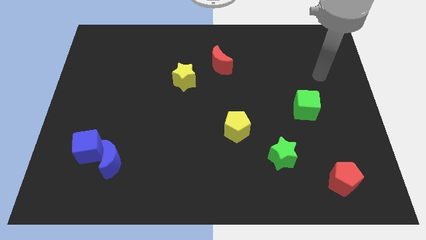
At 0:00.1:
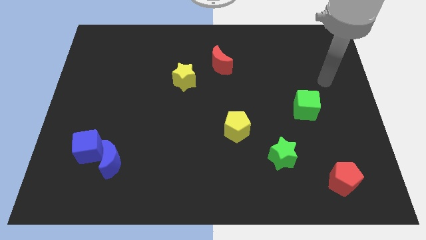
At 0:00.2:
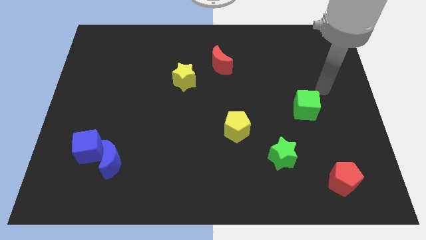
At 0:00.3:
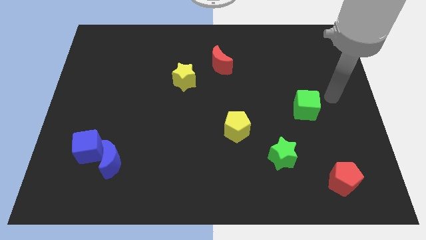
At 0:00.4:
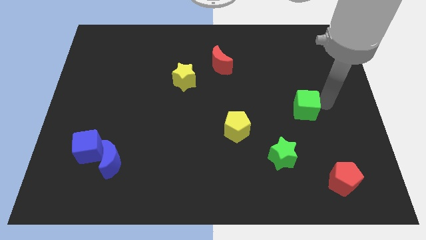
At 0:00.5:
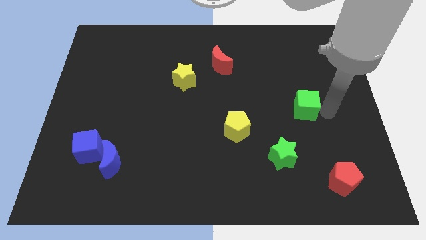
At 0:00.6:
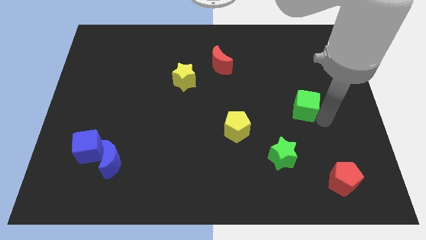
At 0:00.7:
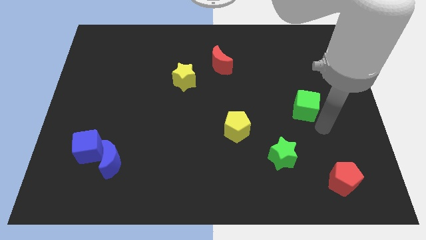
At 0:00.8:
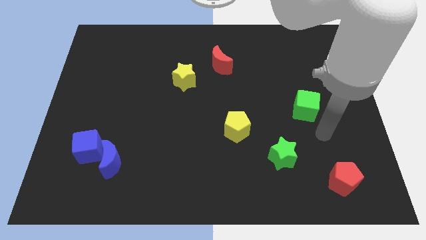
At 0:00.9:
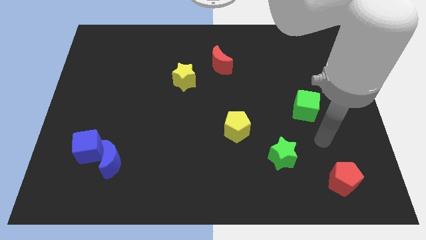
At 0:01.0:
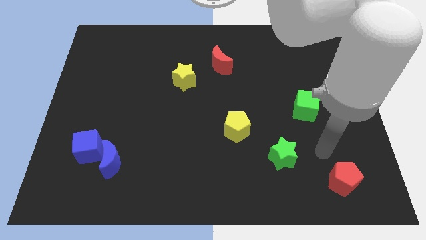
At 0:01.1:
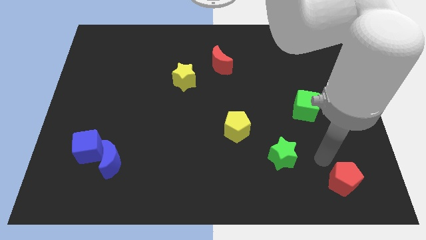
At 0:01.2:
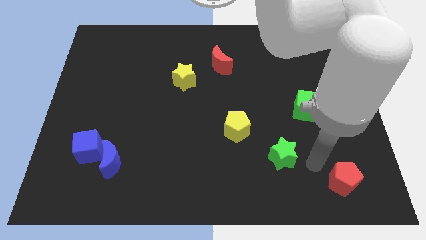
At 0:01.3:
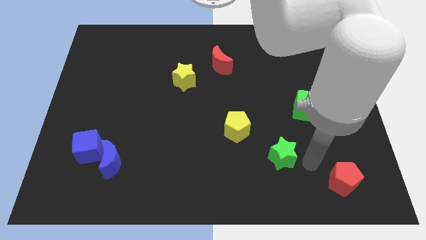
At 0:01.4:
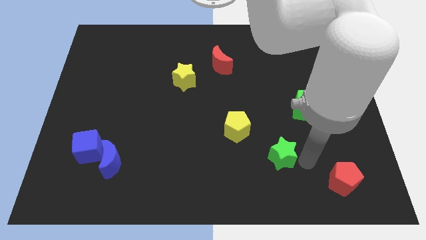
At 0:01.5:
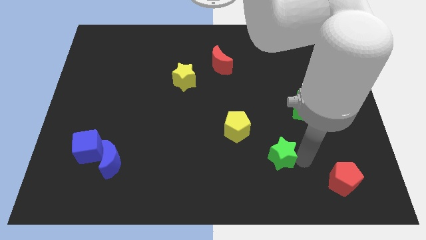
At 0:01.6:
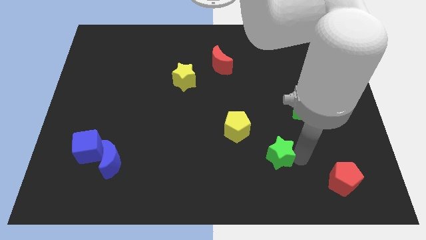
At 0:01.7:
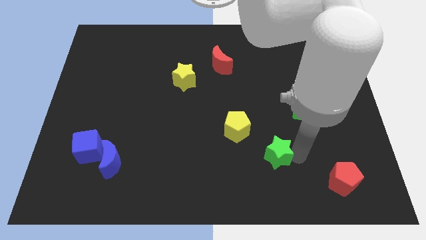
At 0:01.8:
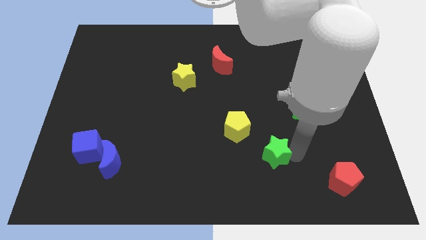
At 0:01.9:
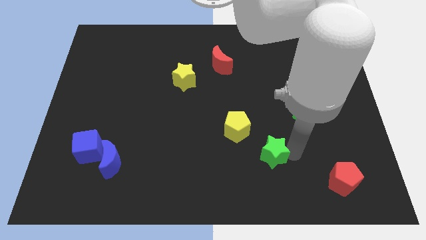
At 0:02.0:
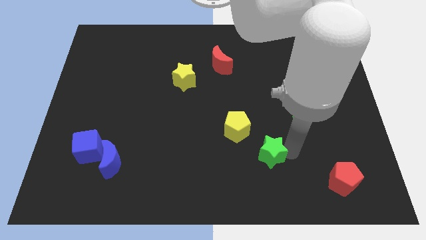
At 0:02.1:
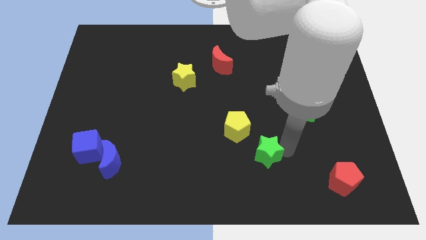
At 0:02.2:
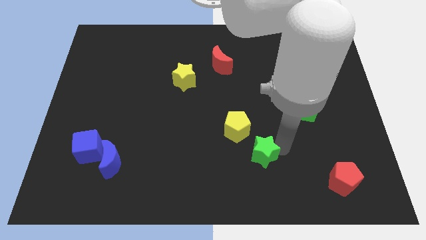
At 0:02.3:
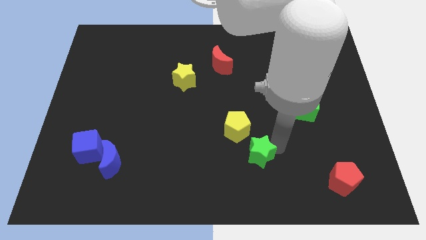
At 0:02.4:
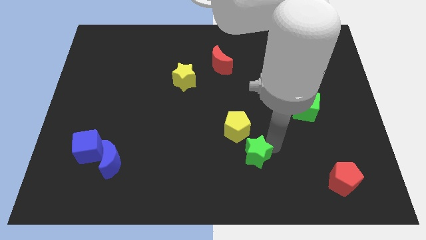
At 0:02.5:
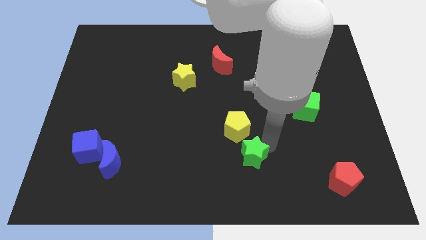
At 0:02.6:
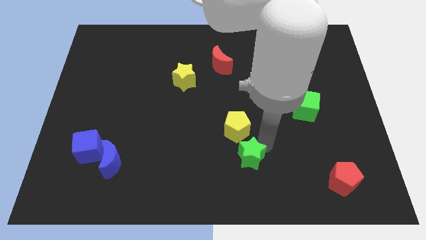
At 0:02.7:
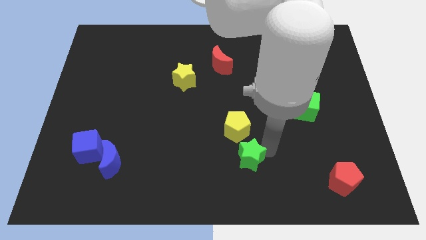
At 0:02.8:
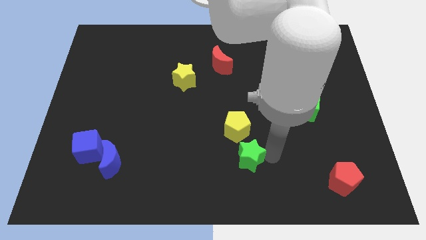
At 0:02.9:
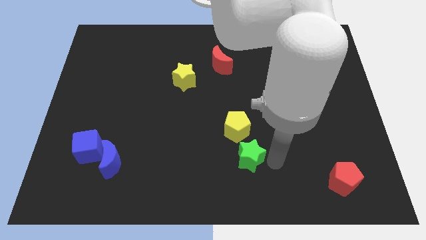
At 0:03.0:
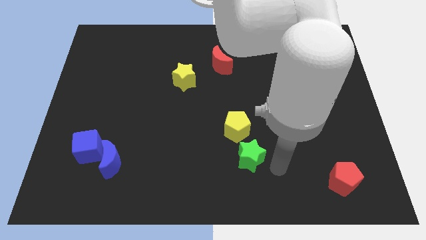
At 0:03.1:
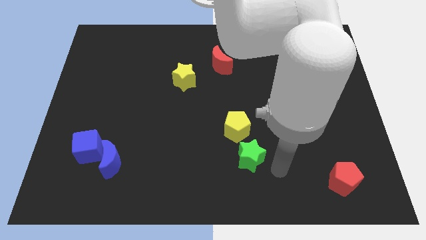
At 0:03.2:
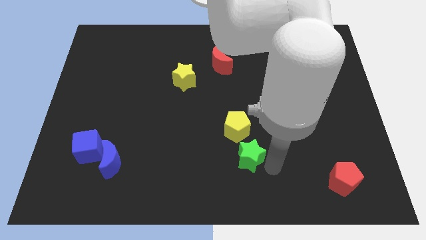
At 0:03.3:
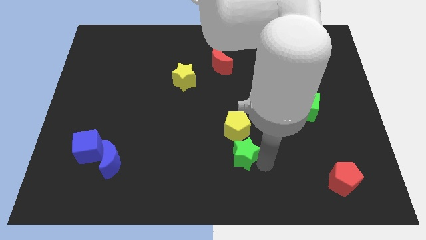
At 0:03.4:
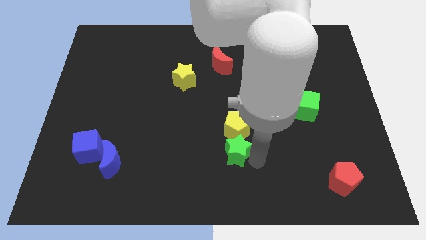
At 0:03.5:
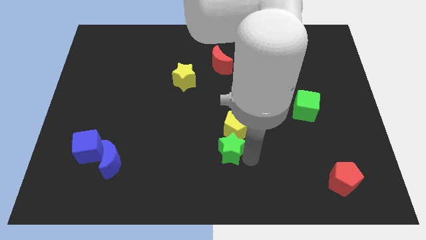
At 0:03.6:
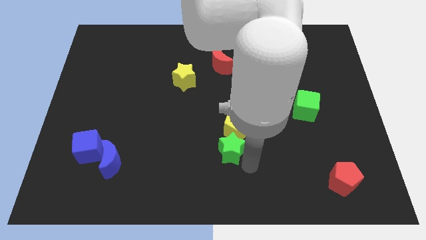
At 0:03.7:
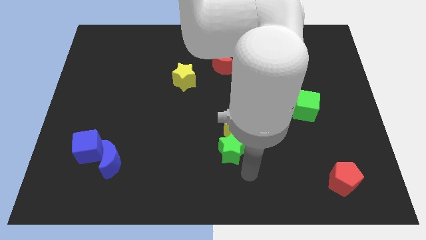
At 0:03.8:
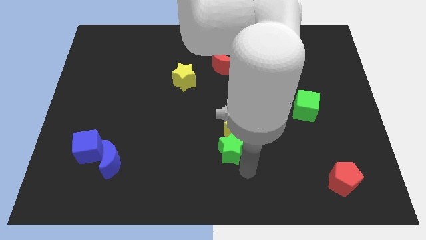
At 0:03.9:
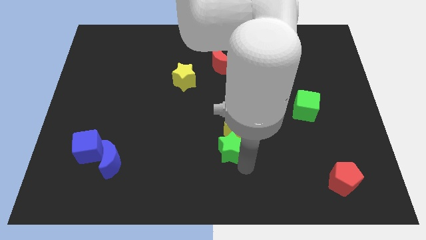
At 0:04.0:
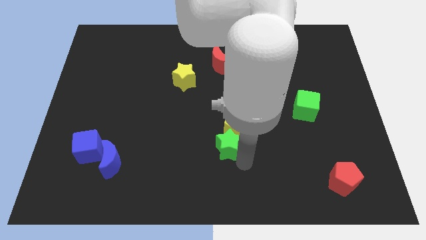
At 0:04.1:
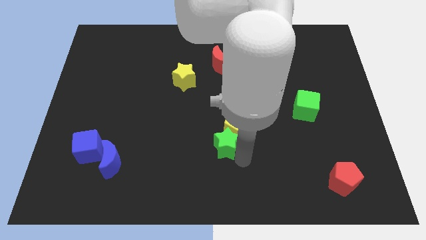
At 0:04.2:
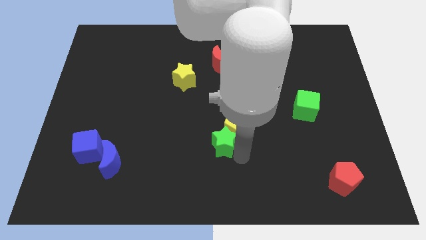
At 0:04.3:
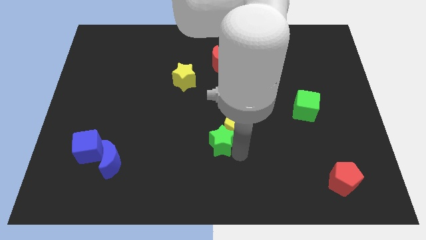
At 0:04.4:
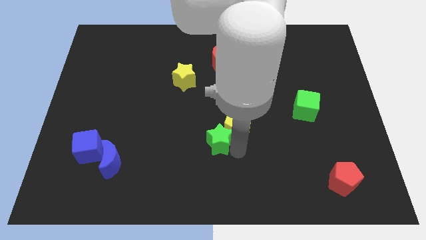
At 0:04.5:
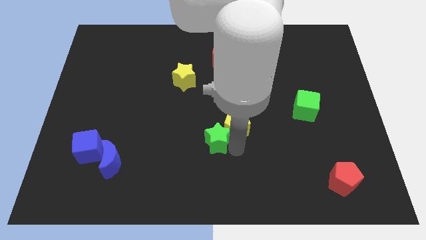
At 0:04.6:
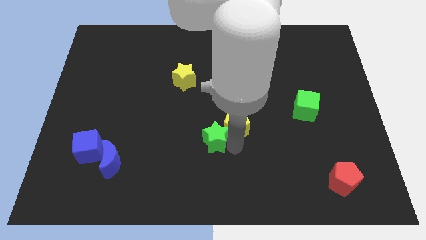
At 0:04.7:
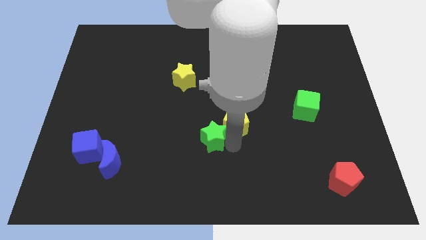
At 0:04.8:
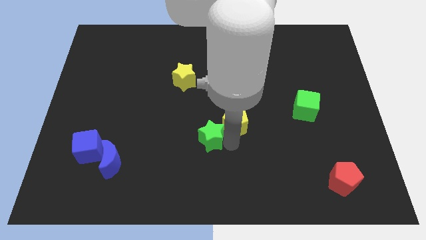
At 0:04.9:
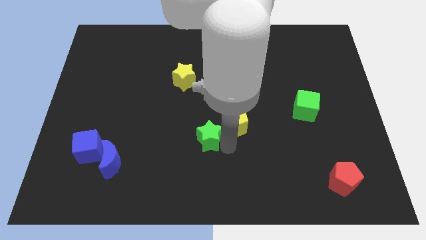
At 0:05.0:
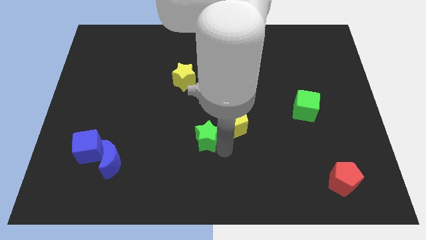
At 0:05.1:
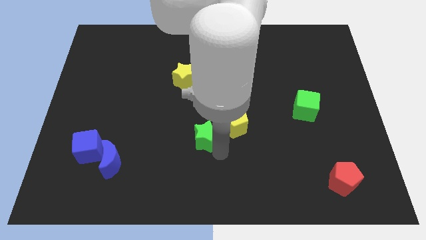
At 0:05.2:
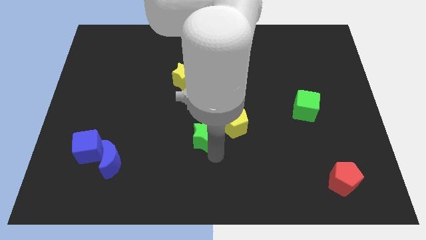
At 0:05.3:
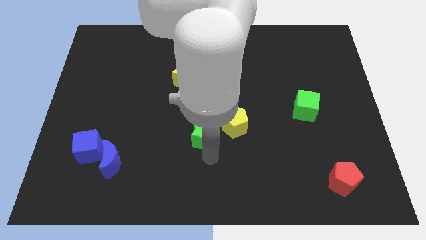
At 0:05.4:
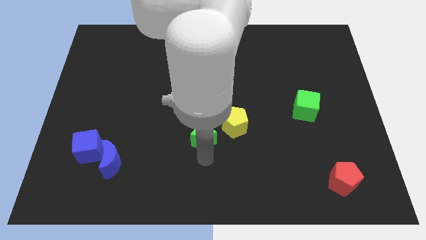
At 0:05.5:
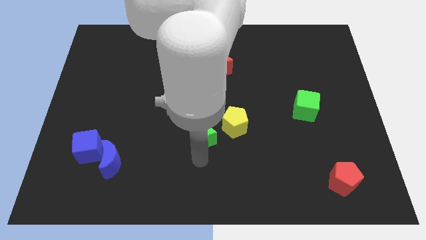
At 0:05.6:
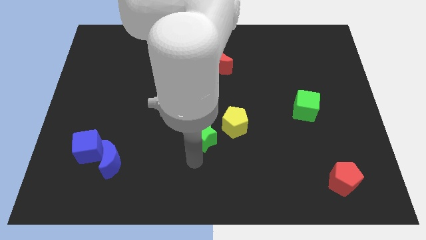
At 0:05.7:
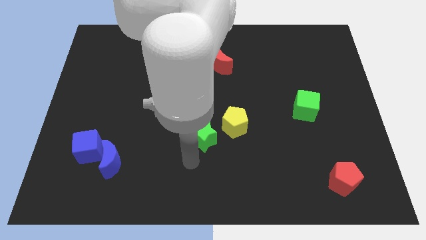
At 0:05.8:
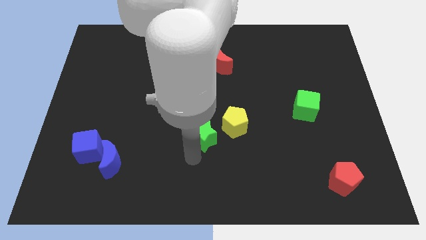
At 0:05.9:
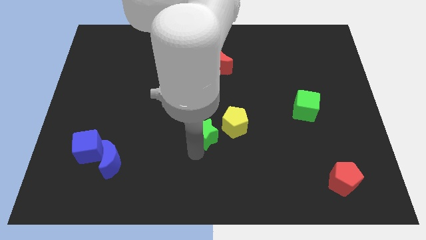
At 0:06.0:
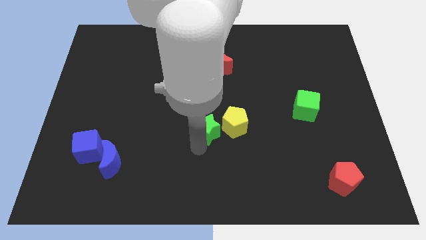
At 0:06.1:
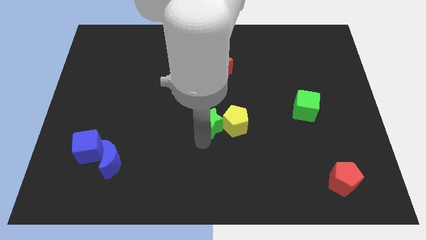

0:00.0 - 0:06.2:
move the green star to the top left side of the yellow pentagon

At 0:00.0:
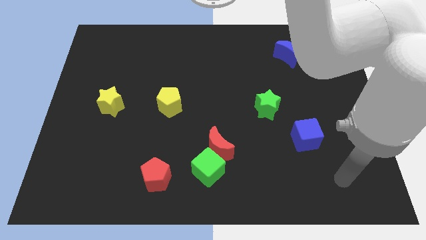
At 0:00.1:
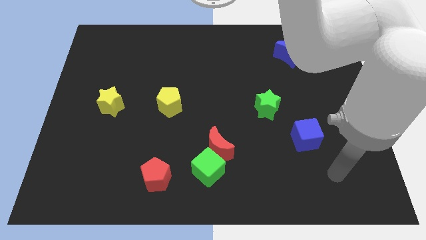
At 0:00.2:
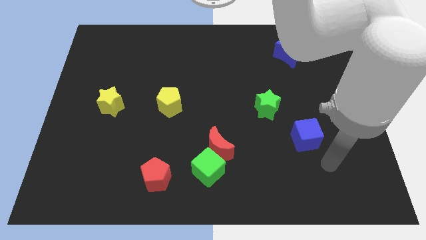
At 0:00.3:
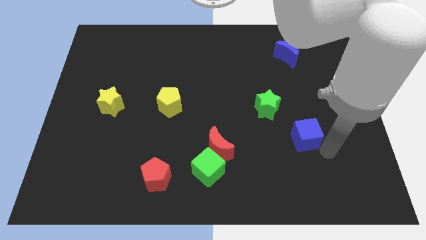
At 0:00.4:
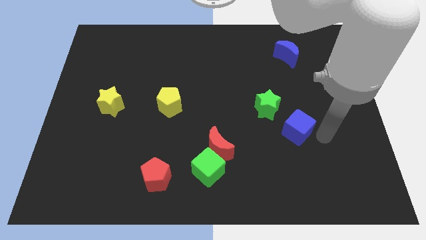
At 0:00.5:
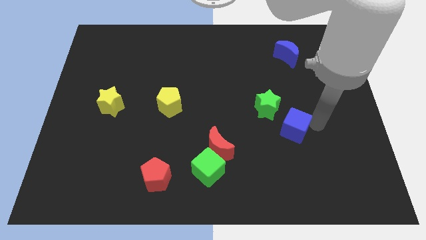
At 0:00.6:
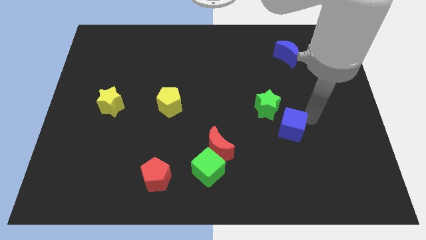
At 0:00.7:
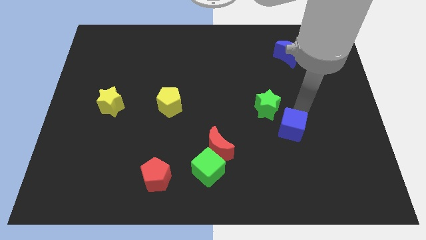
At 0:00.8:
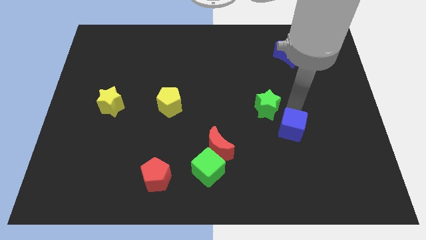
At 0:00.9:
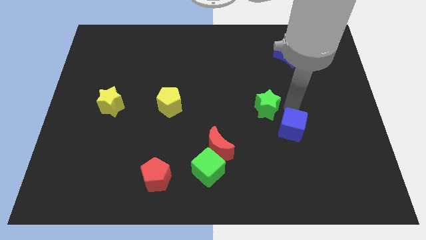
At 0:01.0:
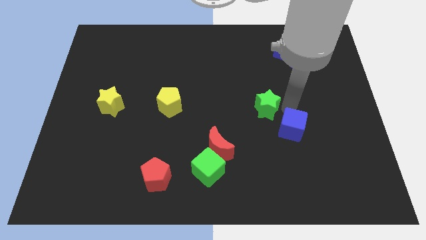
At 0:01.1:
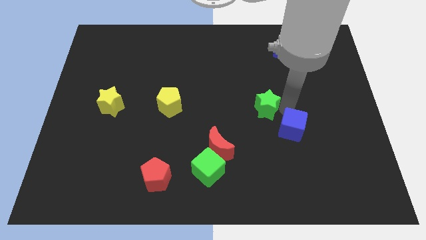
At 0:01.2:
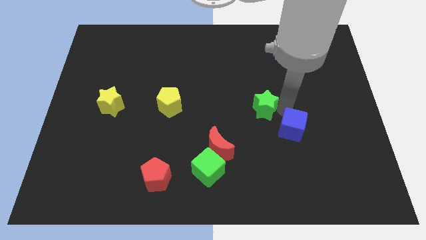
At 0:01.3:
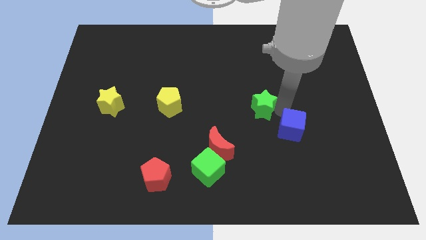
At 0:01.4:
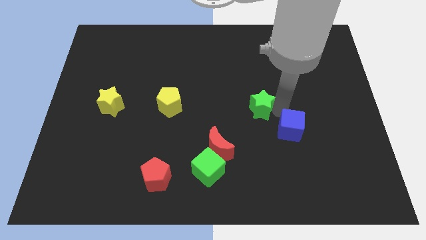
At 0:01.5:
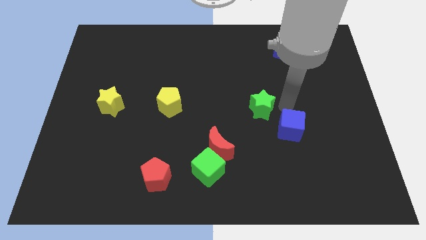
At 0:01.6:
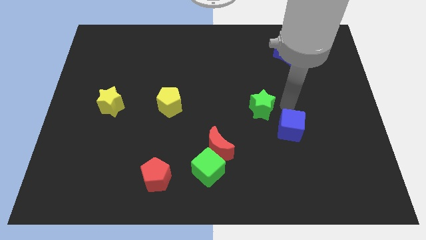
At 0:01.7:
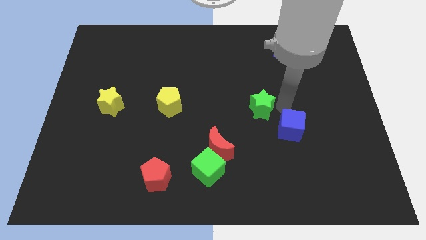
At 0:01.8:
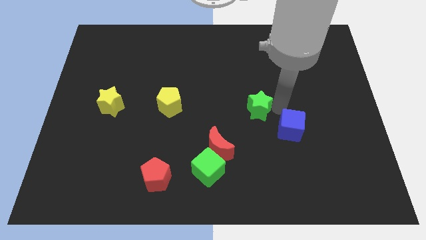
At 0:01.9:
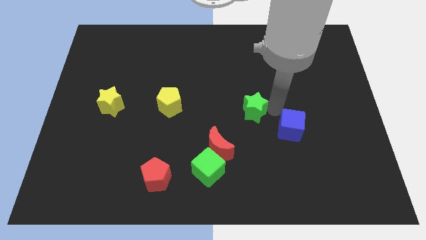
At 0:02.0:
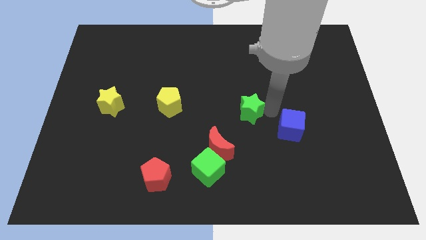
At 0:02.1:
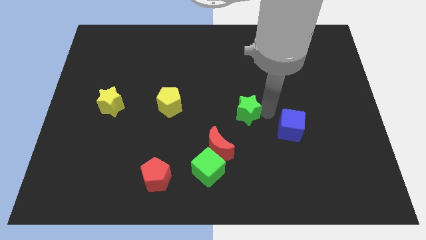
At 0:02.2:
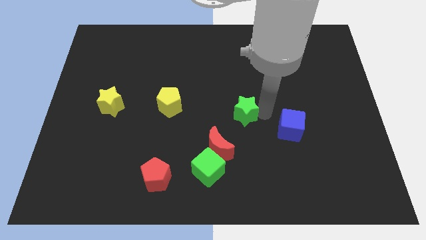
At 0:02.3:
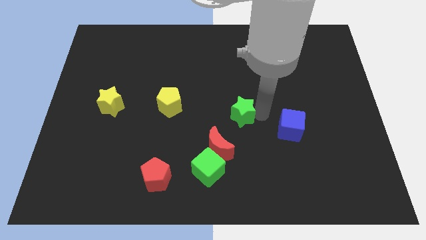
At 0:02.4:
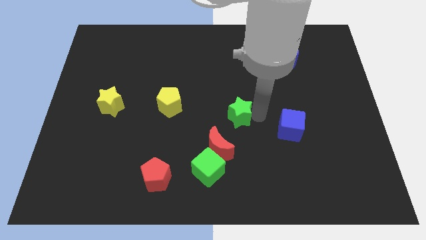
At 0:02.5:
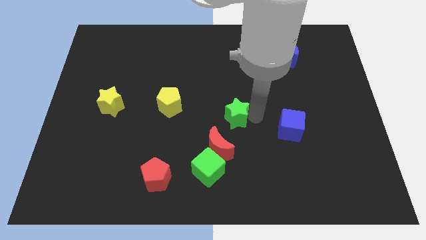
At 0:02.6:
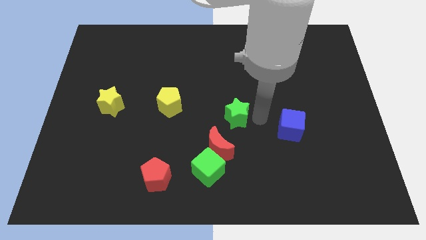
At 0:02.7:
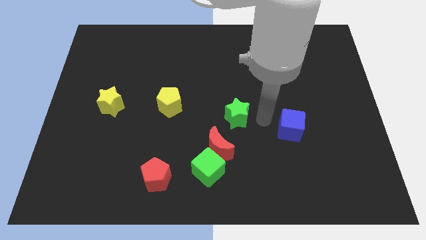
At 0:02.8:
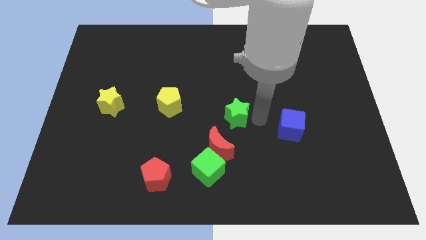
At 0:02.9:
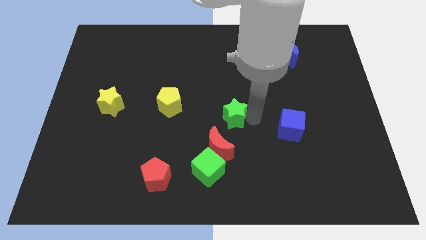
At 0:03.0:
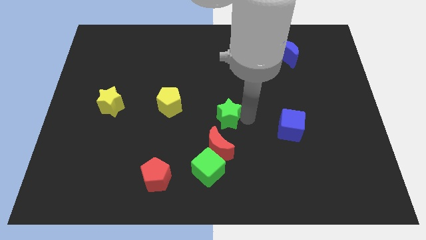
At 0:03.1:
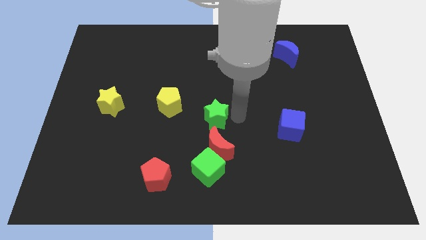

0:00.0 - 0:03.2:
move the green star to the bottom right of the yellow pentagon
